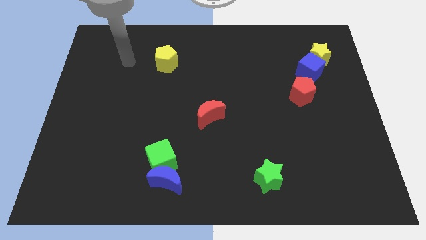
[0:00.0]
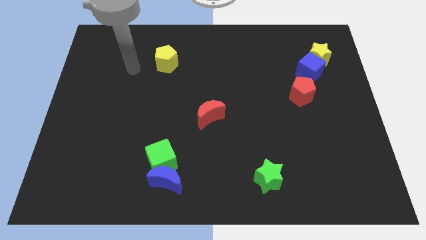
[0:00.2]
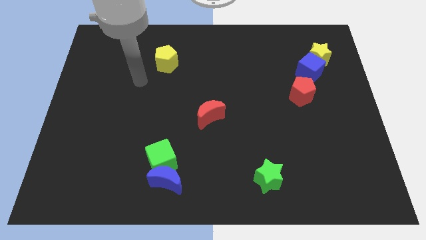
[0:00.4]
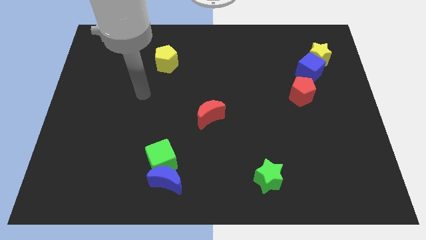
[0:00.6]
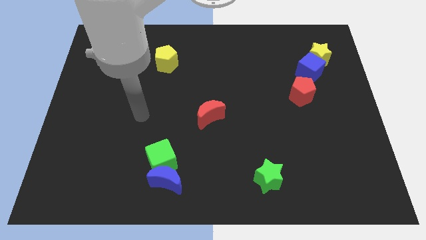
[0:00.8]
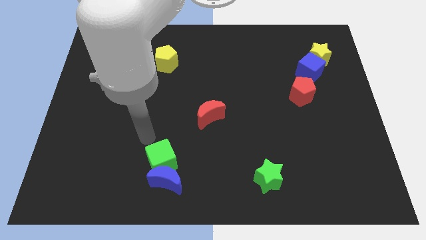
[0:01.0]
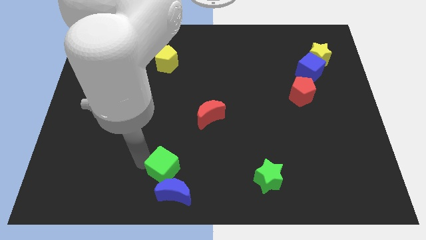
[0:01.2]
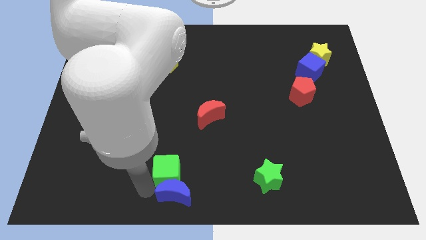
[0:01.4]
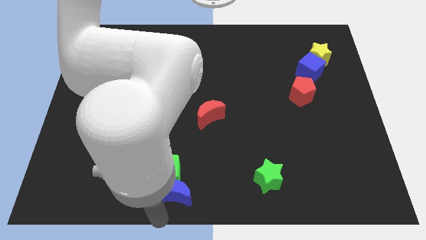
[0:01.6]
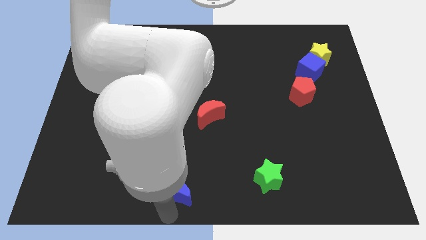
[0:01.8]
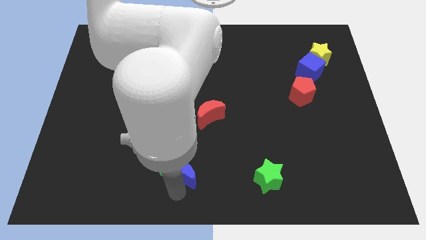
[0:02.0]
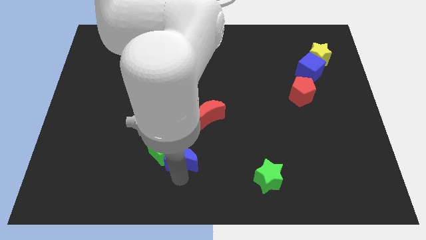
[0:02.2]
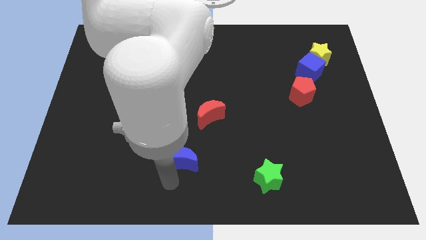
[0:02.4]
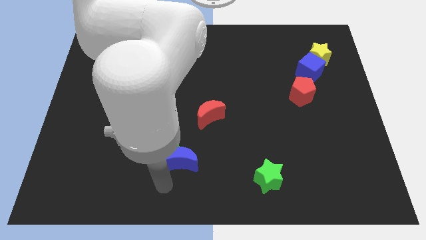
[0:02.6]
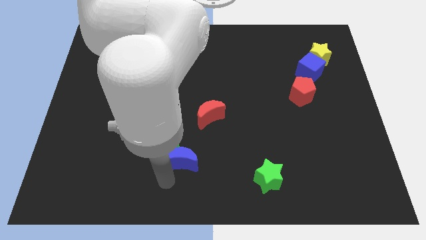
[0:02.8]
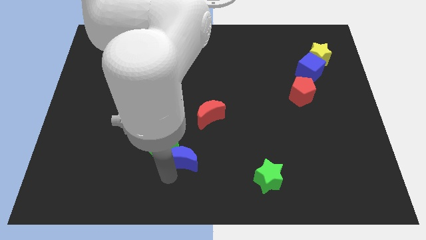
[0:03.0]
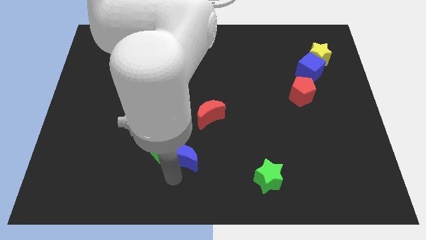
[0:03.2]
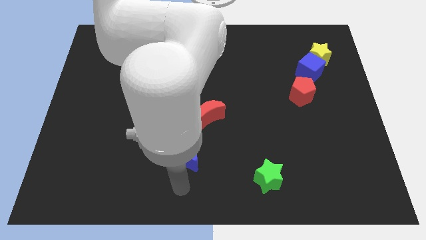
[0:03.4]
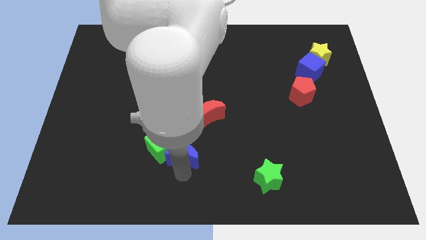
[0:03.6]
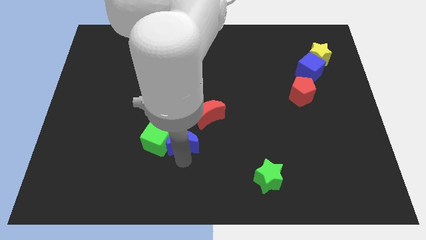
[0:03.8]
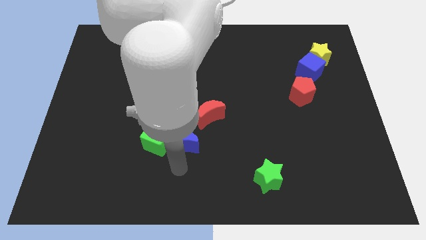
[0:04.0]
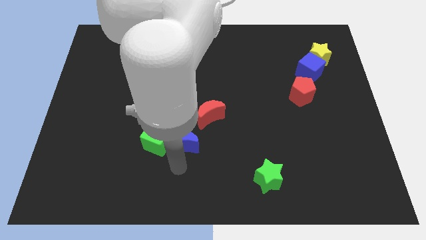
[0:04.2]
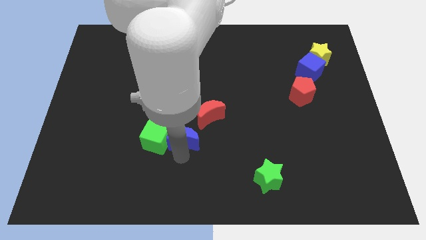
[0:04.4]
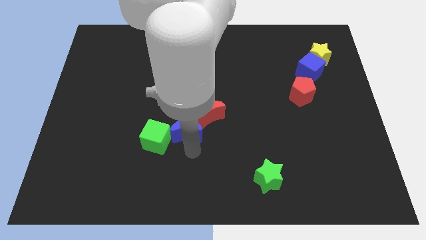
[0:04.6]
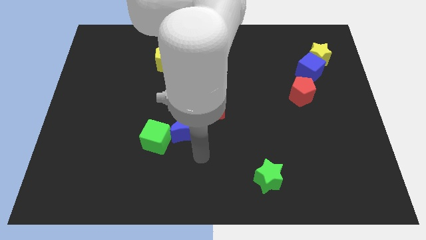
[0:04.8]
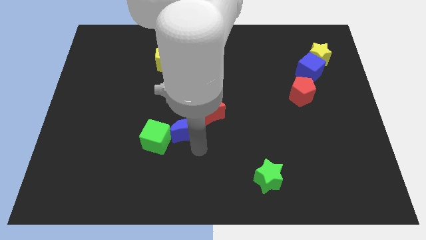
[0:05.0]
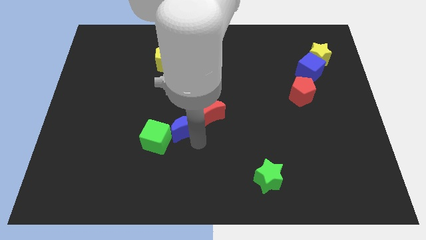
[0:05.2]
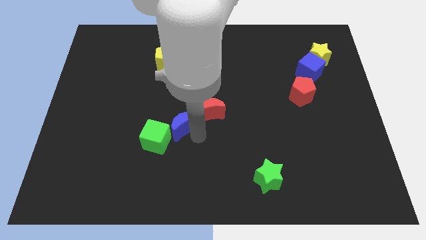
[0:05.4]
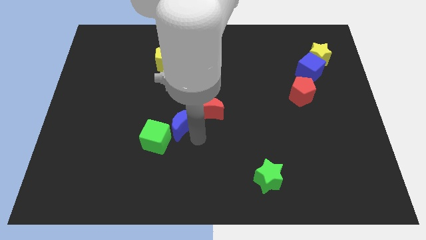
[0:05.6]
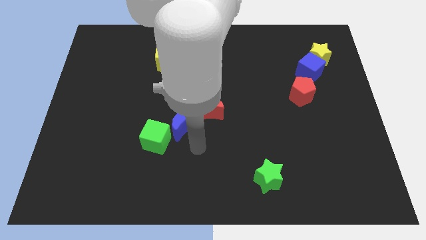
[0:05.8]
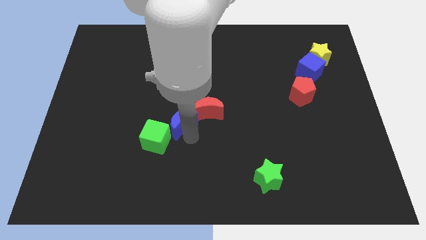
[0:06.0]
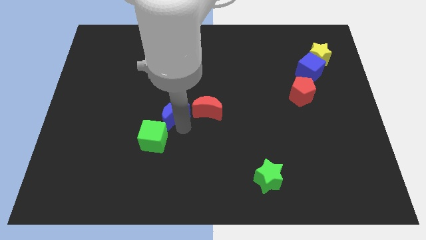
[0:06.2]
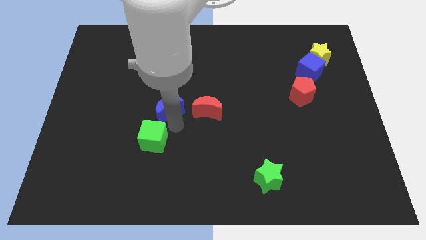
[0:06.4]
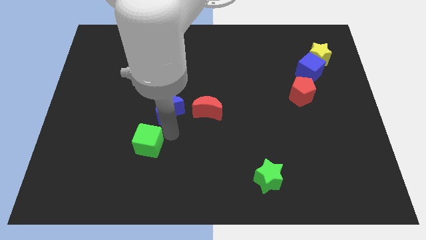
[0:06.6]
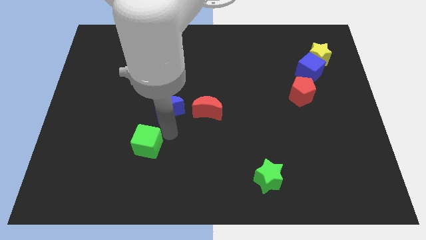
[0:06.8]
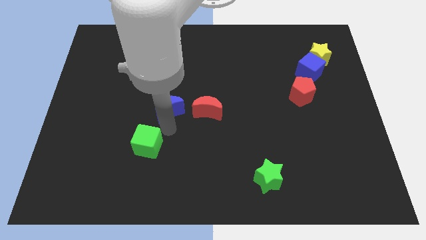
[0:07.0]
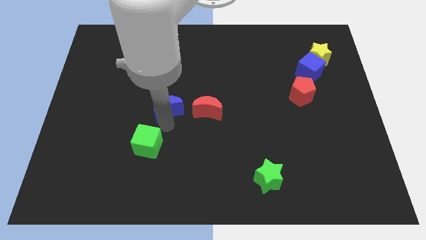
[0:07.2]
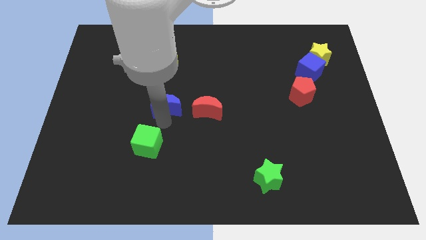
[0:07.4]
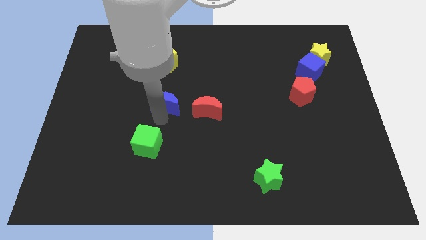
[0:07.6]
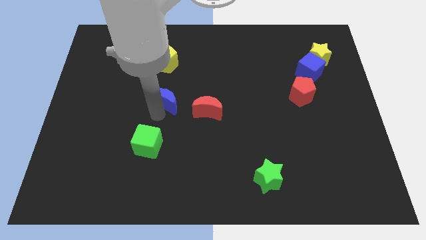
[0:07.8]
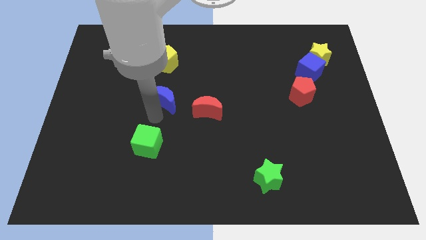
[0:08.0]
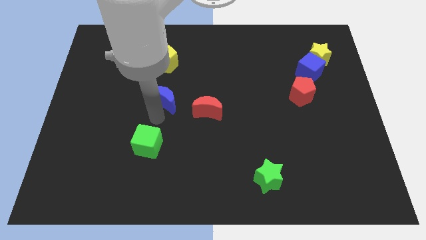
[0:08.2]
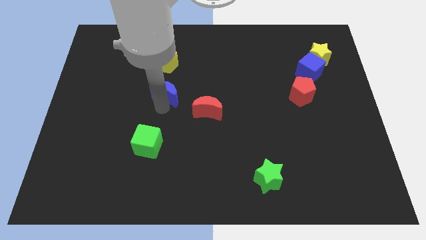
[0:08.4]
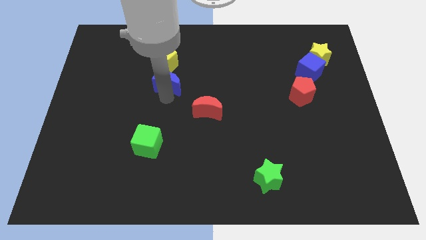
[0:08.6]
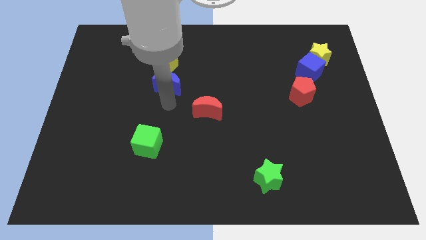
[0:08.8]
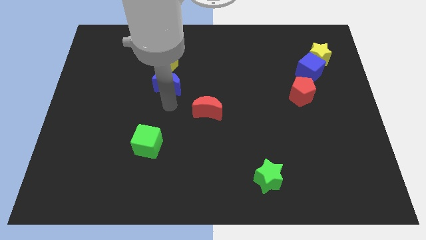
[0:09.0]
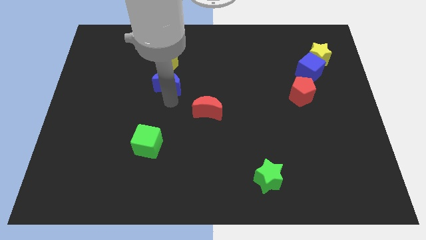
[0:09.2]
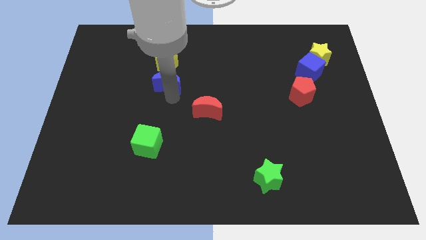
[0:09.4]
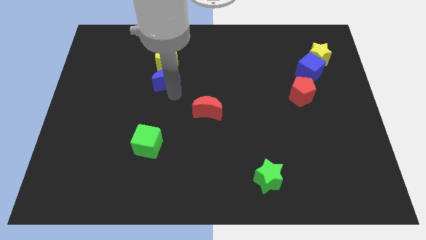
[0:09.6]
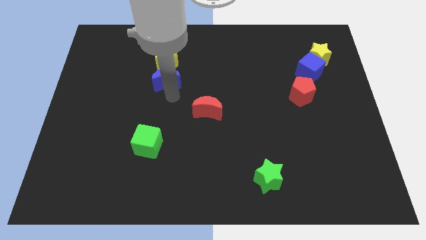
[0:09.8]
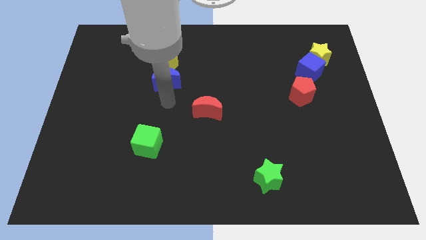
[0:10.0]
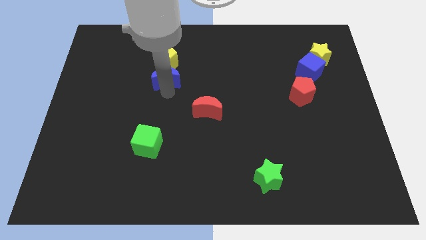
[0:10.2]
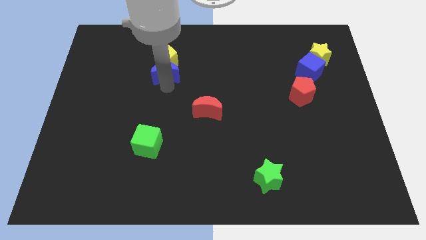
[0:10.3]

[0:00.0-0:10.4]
slide the blue moon close to the yellow pentagon

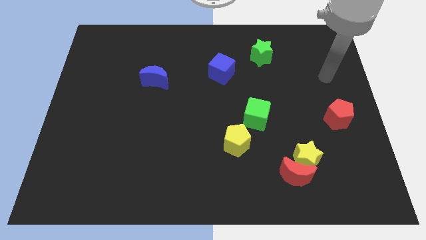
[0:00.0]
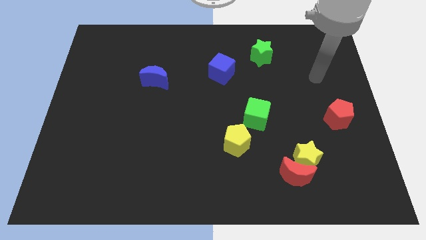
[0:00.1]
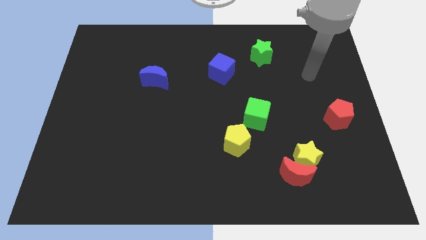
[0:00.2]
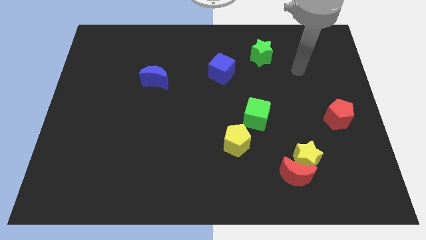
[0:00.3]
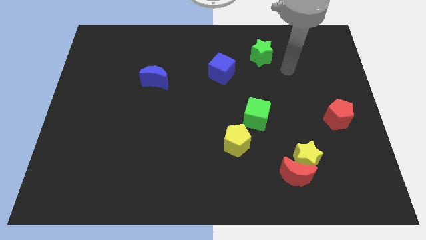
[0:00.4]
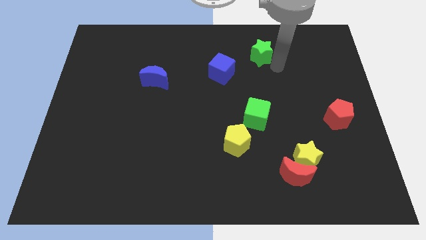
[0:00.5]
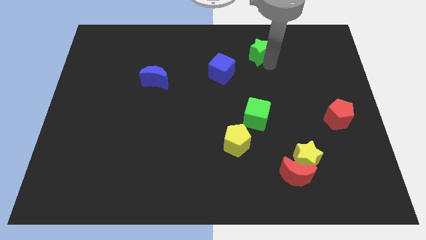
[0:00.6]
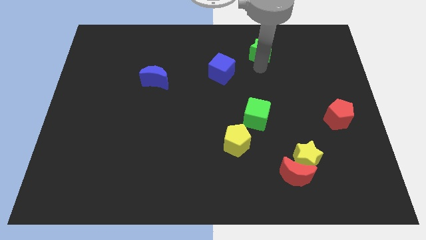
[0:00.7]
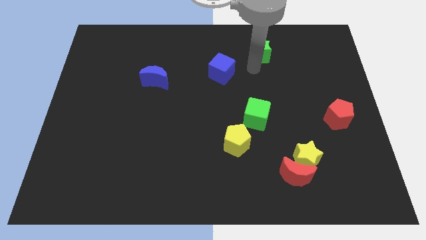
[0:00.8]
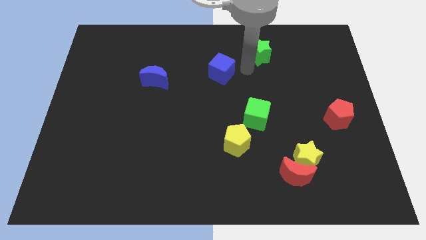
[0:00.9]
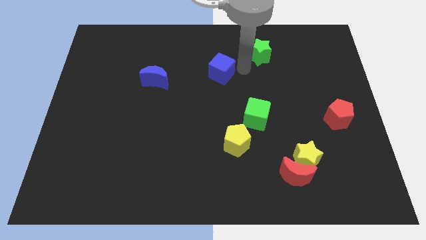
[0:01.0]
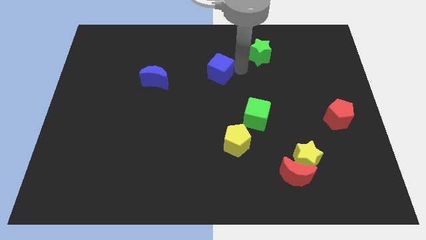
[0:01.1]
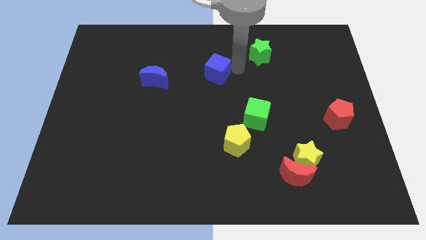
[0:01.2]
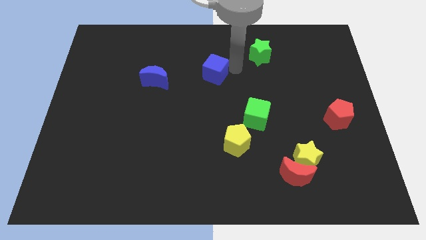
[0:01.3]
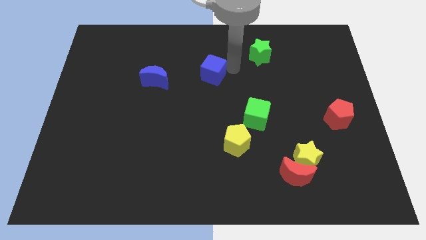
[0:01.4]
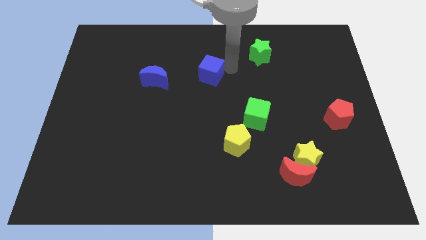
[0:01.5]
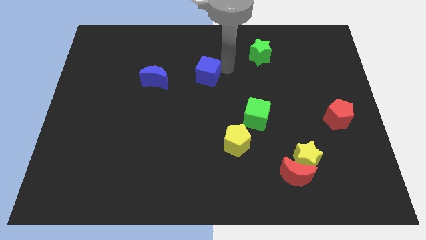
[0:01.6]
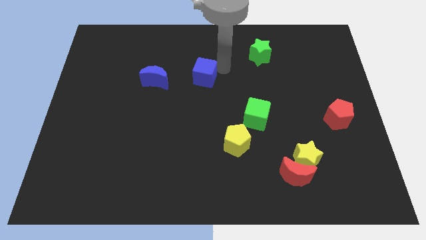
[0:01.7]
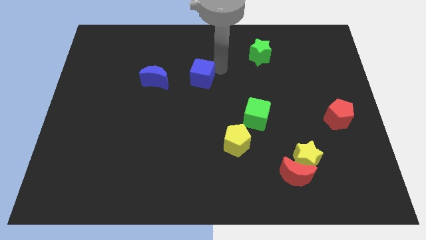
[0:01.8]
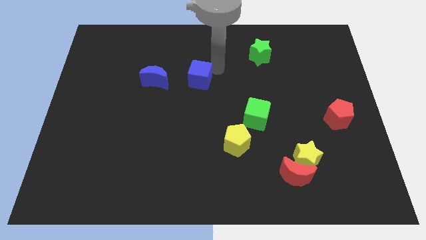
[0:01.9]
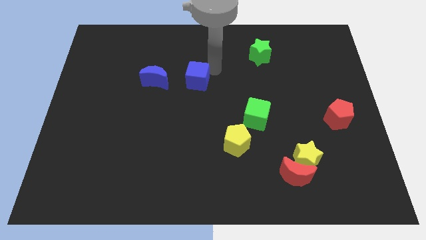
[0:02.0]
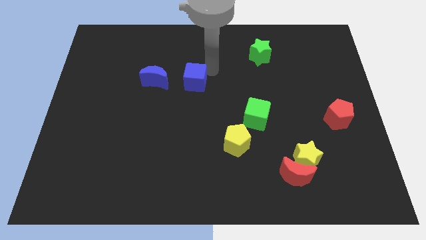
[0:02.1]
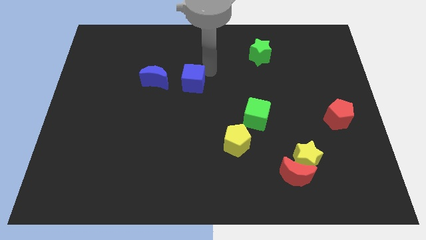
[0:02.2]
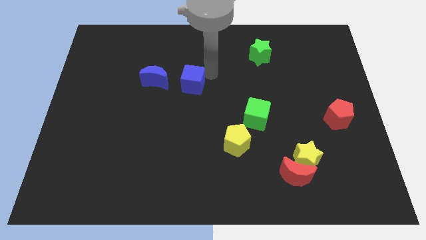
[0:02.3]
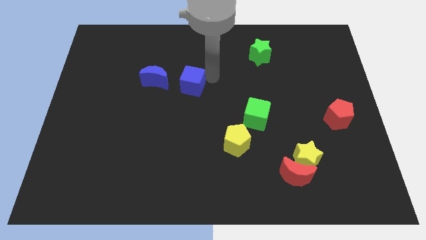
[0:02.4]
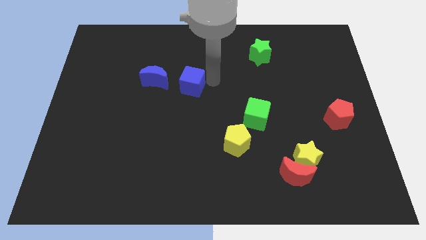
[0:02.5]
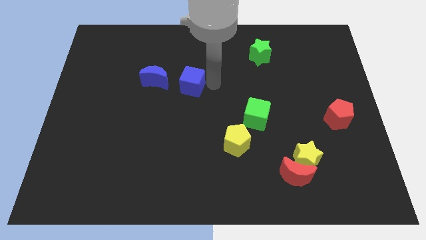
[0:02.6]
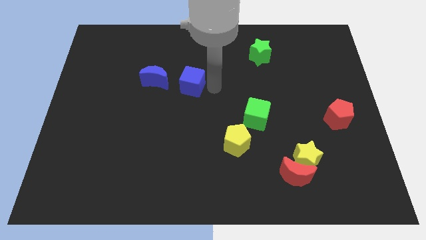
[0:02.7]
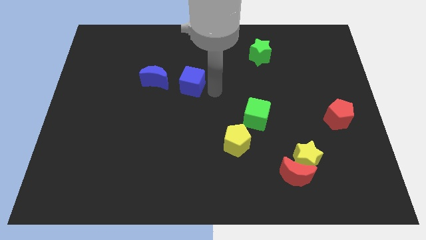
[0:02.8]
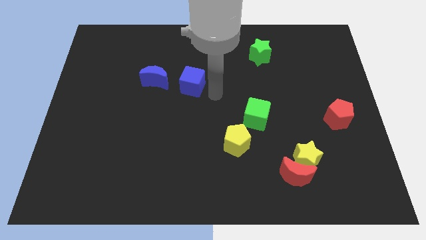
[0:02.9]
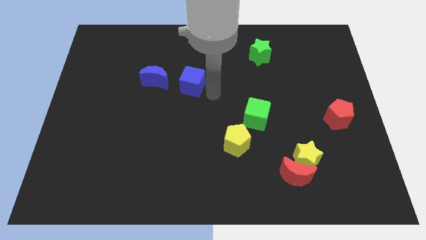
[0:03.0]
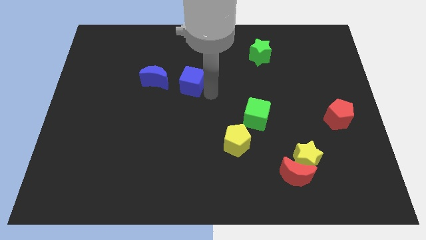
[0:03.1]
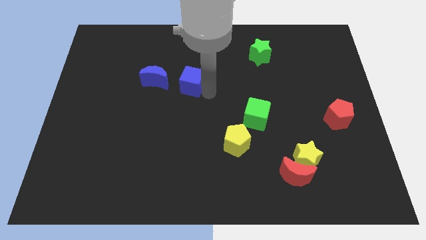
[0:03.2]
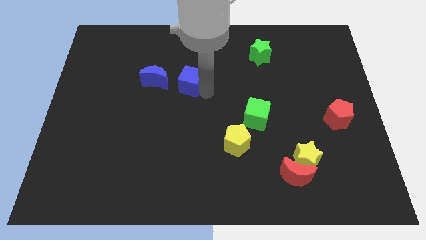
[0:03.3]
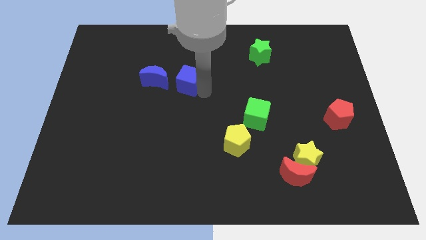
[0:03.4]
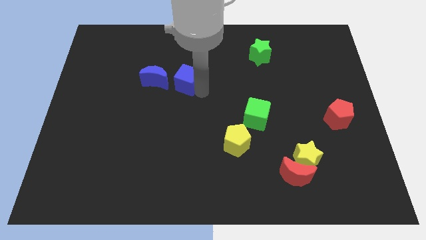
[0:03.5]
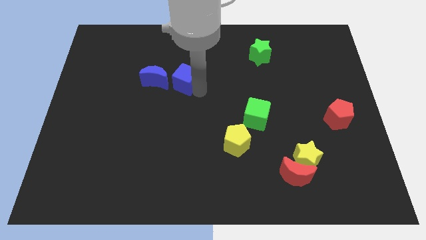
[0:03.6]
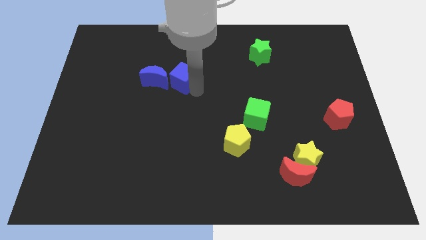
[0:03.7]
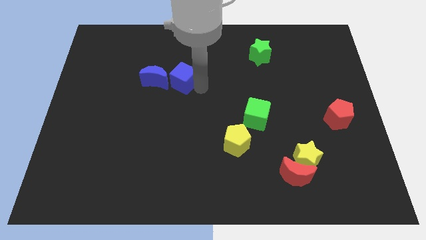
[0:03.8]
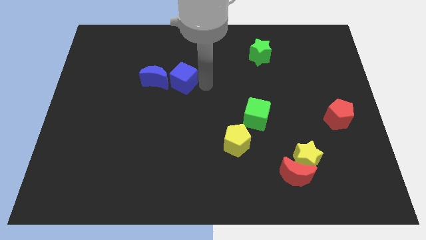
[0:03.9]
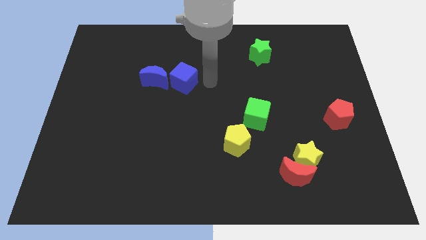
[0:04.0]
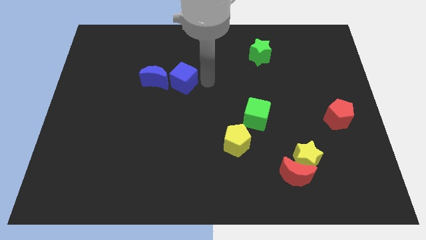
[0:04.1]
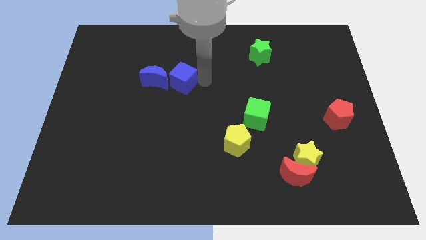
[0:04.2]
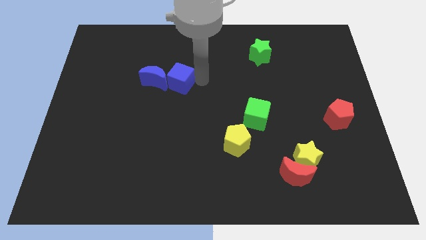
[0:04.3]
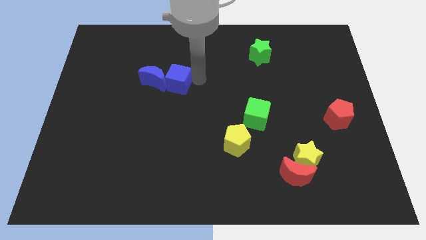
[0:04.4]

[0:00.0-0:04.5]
slide the blue cube to the blue moon
